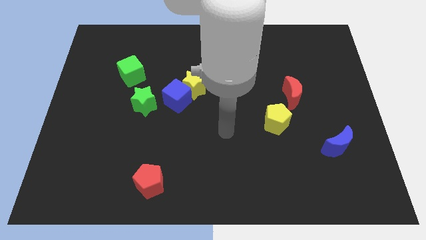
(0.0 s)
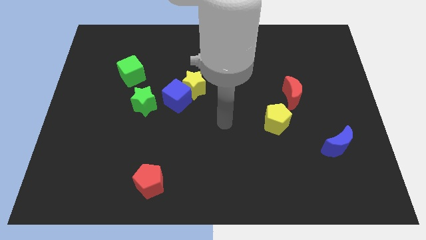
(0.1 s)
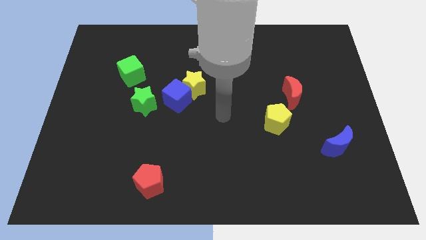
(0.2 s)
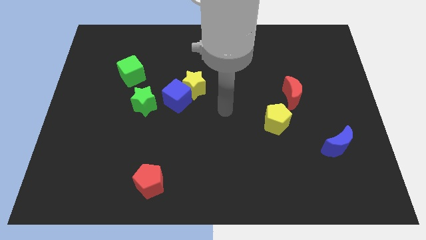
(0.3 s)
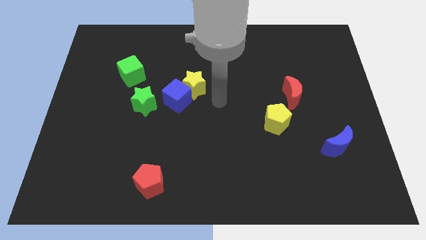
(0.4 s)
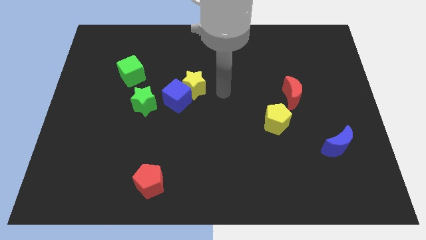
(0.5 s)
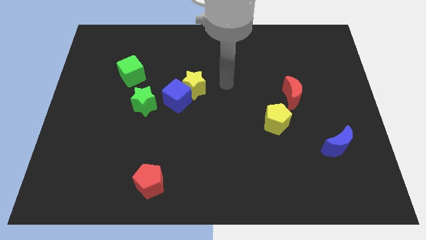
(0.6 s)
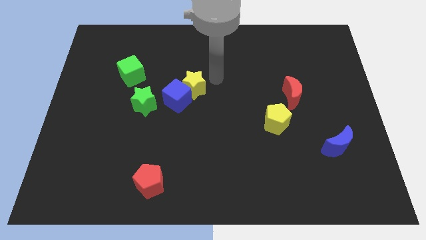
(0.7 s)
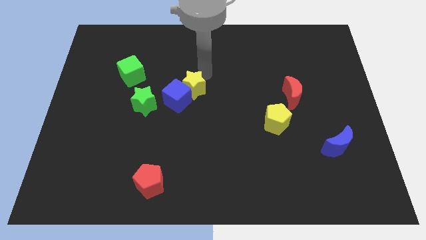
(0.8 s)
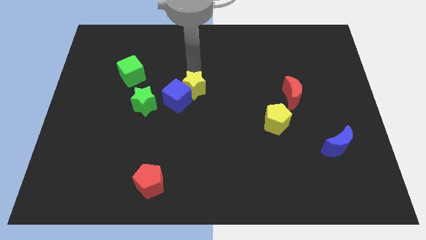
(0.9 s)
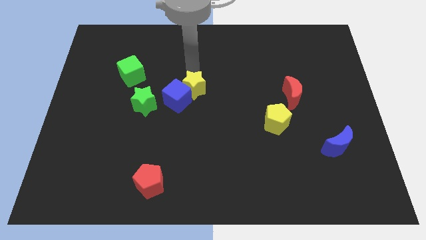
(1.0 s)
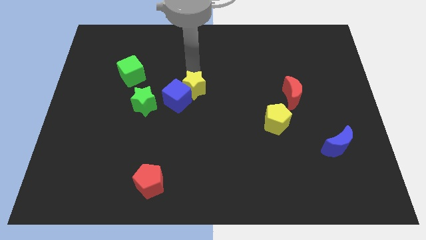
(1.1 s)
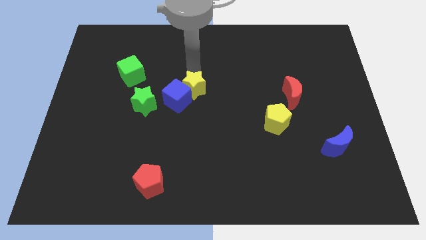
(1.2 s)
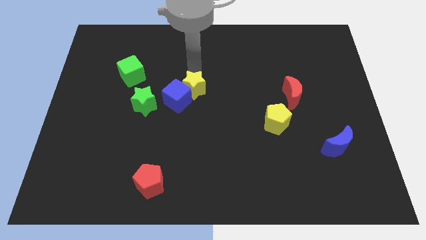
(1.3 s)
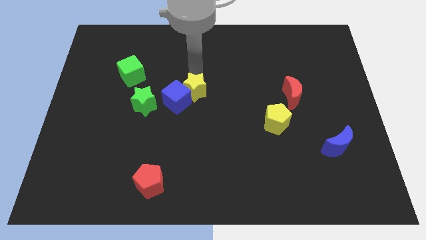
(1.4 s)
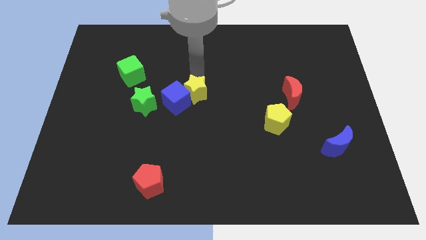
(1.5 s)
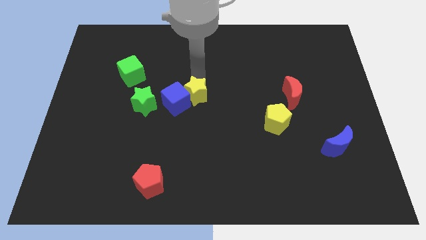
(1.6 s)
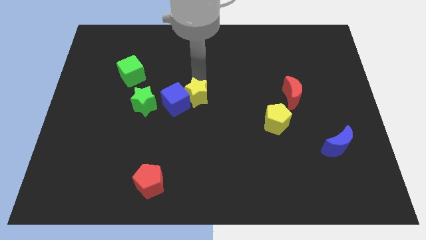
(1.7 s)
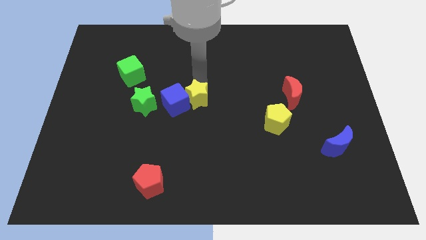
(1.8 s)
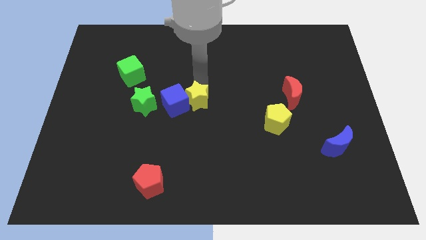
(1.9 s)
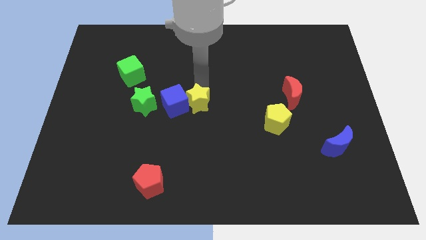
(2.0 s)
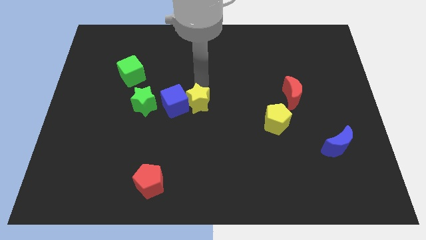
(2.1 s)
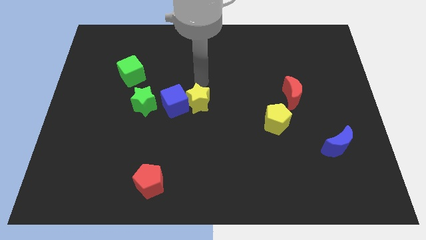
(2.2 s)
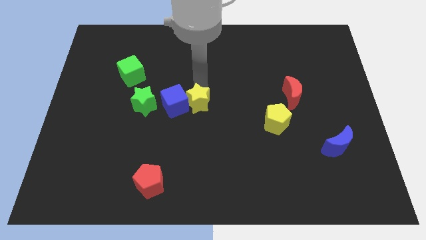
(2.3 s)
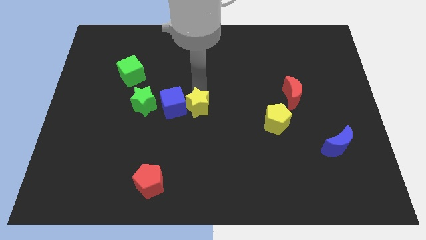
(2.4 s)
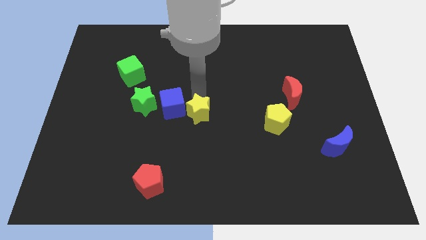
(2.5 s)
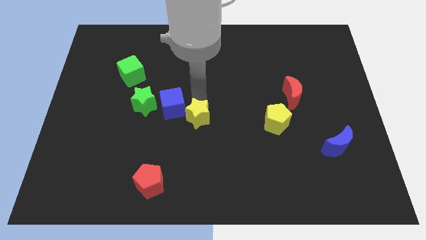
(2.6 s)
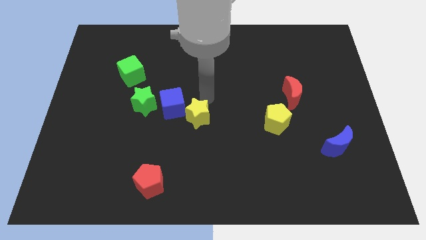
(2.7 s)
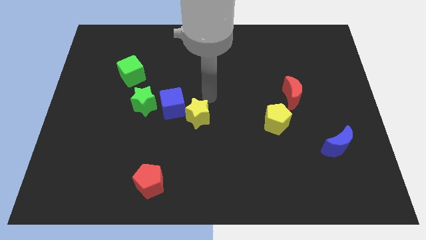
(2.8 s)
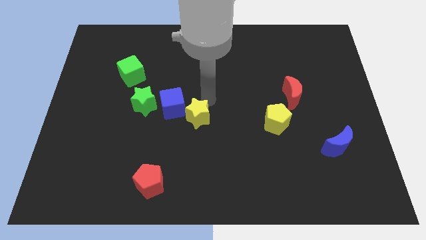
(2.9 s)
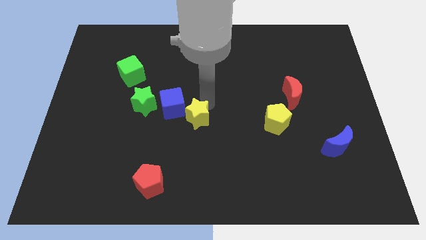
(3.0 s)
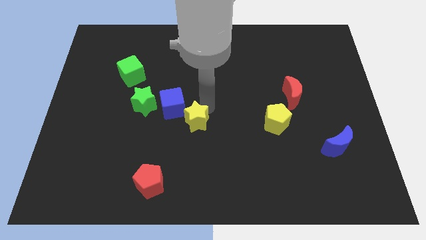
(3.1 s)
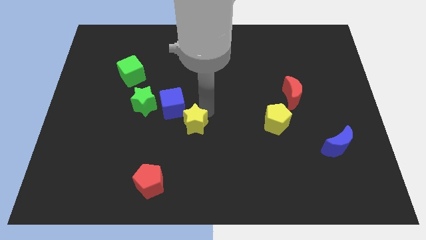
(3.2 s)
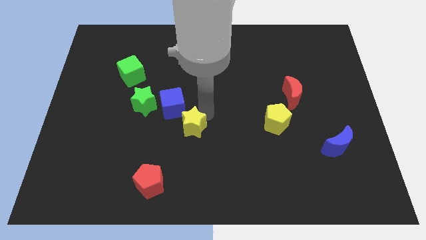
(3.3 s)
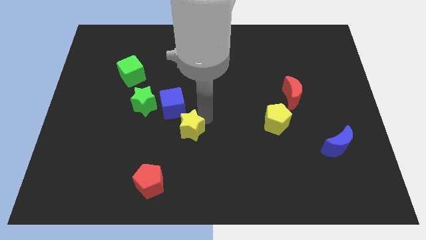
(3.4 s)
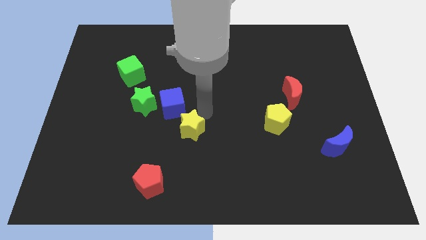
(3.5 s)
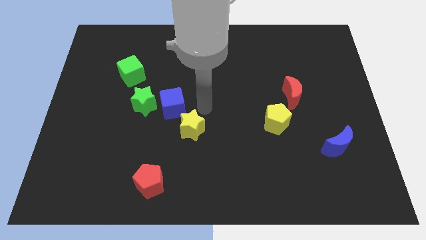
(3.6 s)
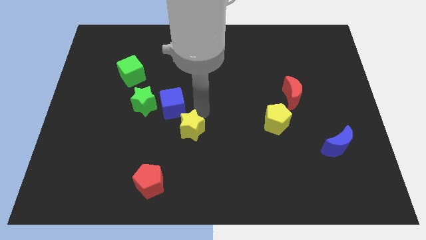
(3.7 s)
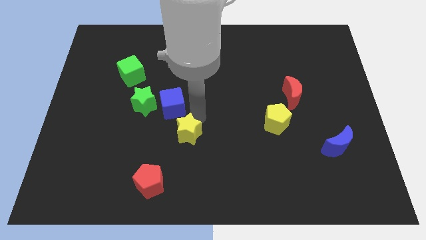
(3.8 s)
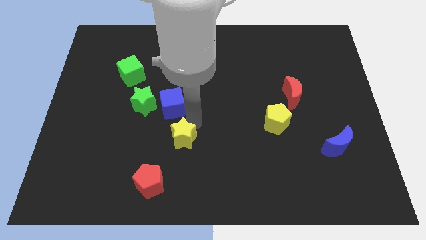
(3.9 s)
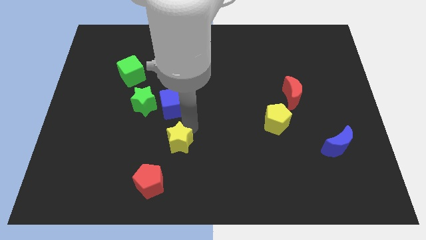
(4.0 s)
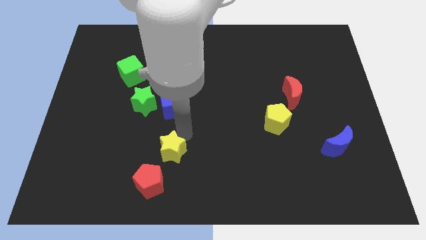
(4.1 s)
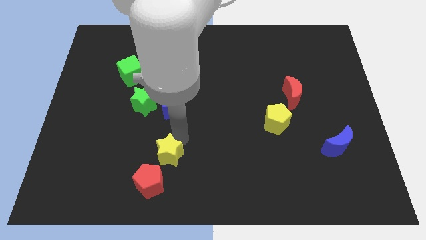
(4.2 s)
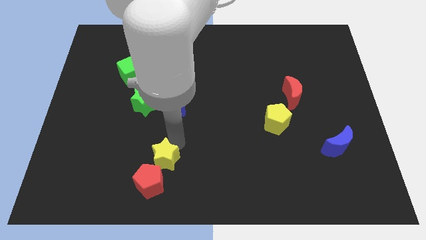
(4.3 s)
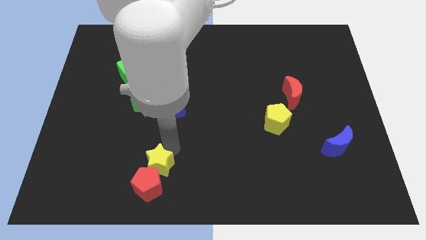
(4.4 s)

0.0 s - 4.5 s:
push the yellow star to the red pentagon

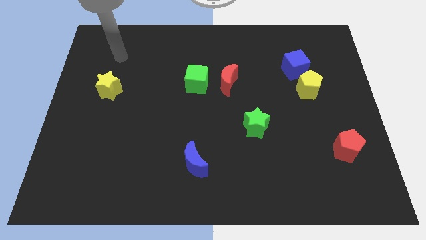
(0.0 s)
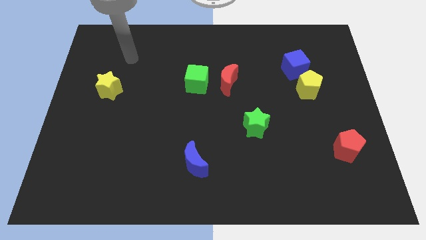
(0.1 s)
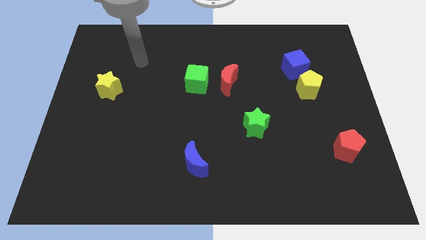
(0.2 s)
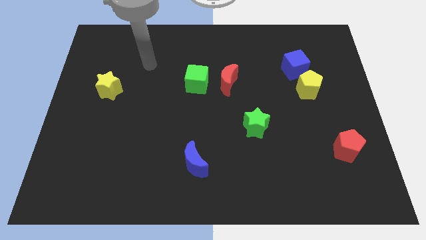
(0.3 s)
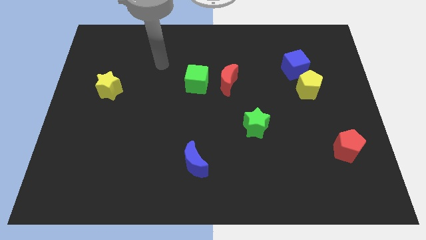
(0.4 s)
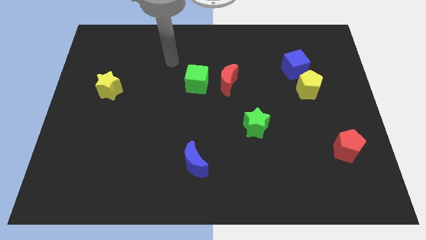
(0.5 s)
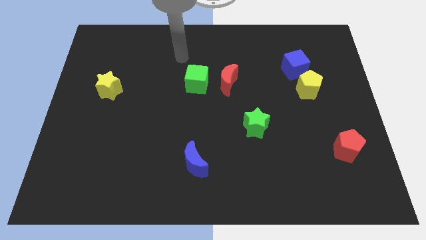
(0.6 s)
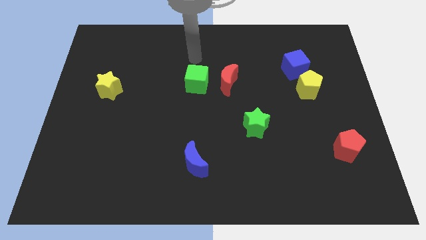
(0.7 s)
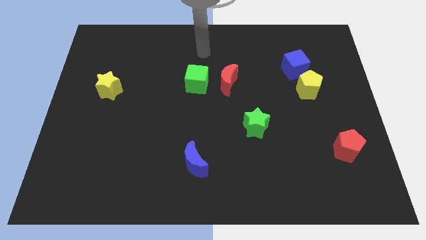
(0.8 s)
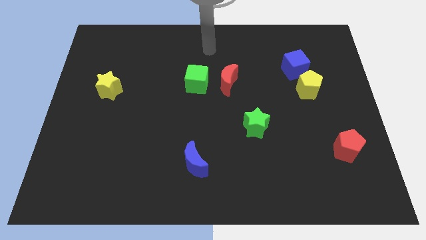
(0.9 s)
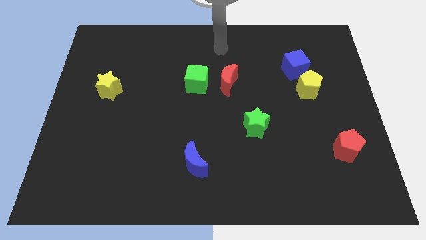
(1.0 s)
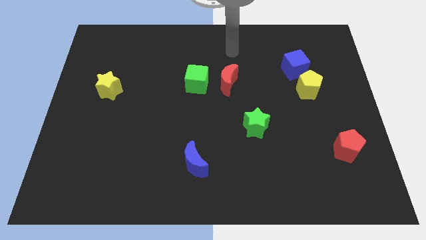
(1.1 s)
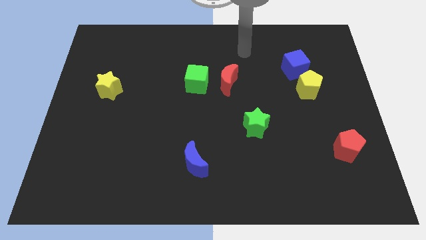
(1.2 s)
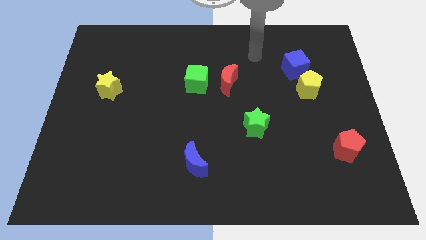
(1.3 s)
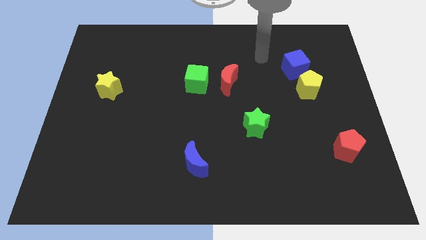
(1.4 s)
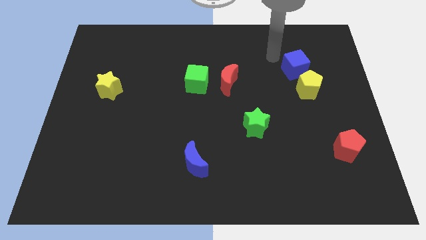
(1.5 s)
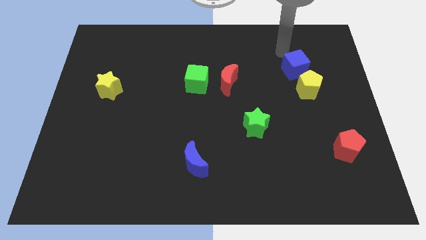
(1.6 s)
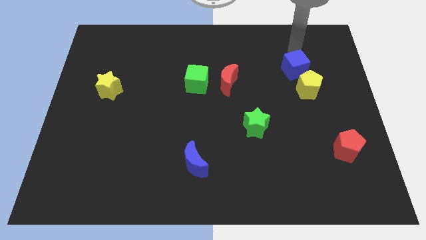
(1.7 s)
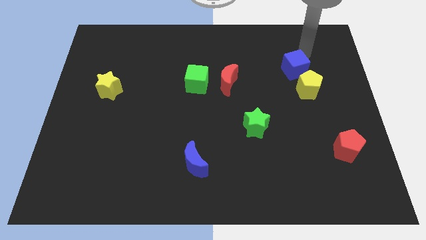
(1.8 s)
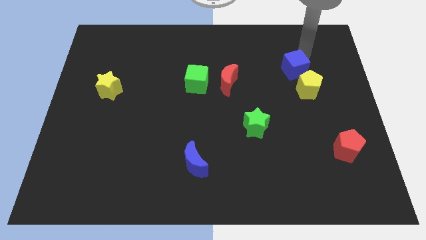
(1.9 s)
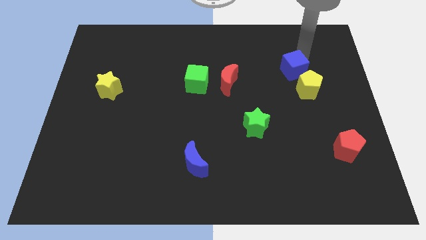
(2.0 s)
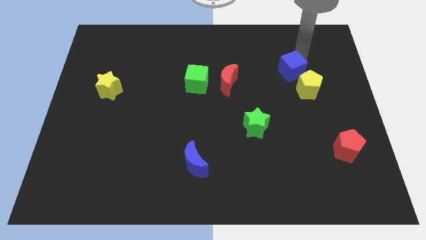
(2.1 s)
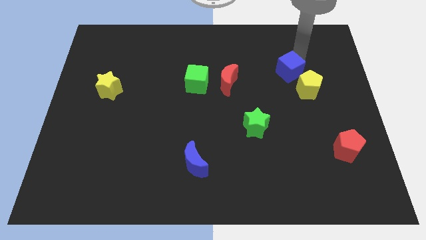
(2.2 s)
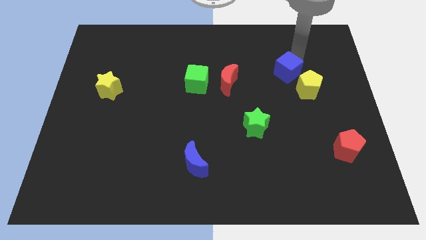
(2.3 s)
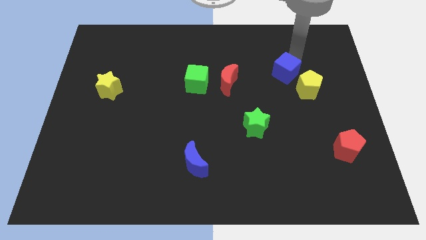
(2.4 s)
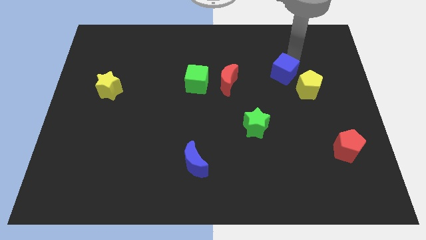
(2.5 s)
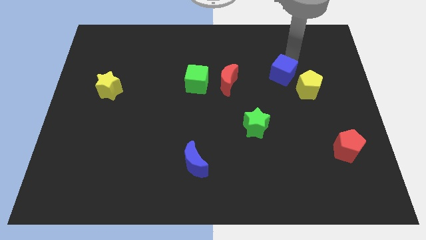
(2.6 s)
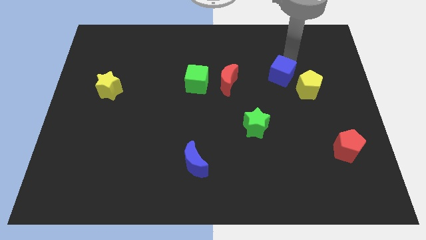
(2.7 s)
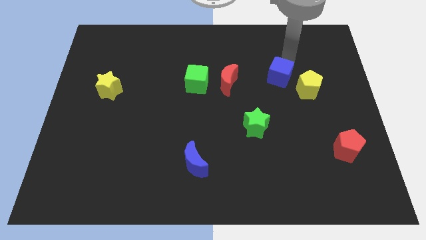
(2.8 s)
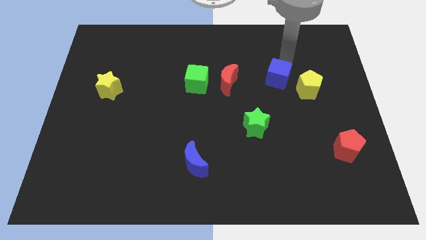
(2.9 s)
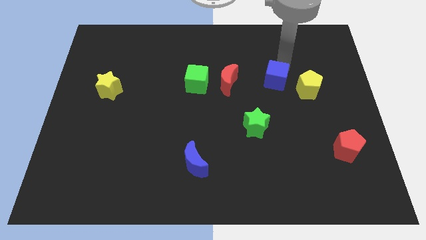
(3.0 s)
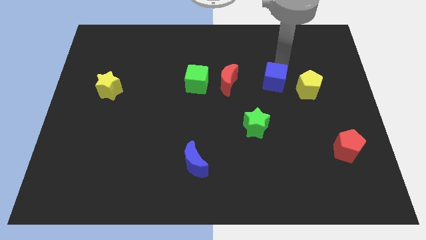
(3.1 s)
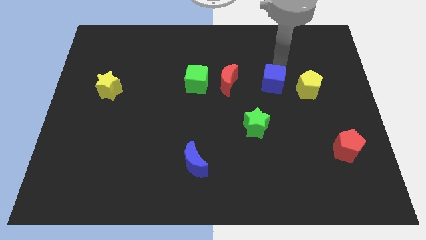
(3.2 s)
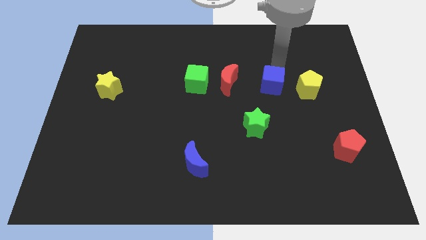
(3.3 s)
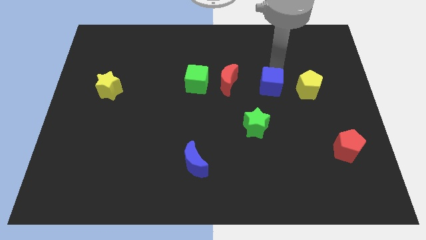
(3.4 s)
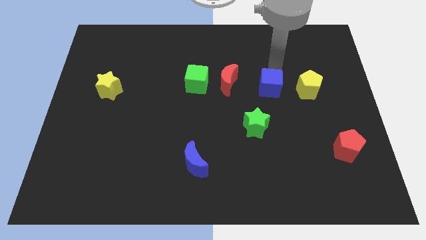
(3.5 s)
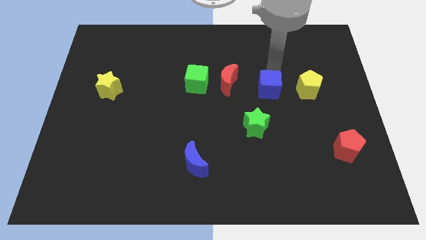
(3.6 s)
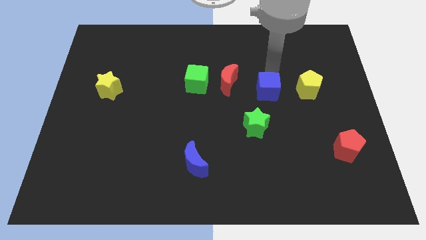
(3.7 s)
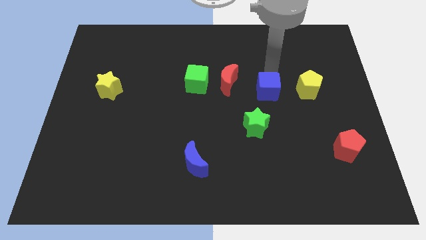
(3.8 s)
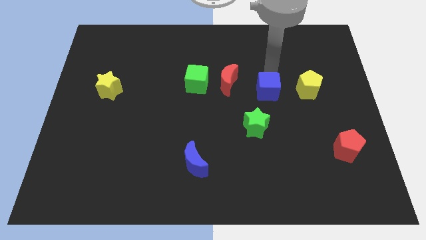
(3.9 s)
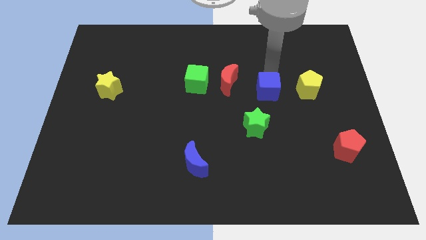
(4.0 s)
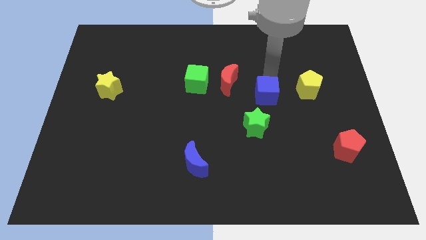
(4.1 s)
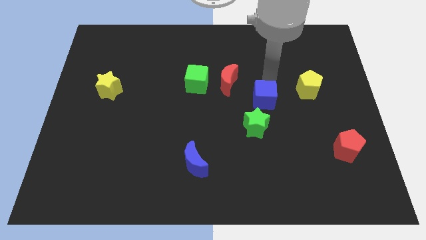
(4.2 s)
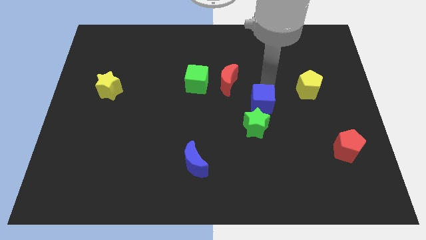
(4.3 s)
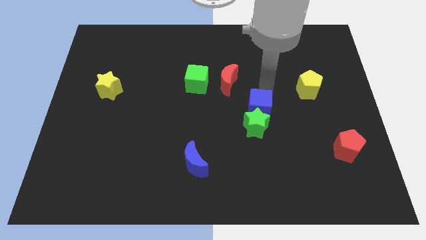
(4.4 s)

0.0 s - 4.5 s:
push the blue cube to the green star
